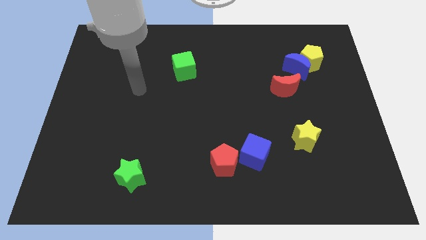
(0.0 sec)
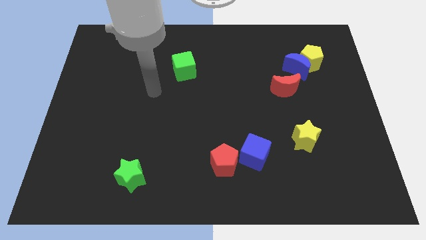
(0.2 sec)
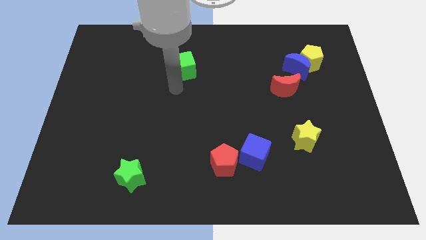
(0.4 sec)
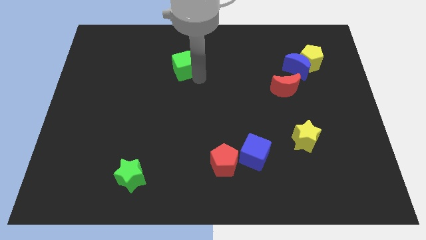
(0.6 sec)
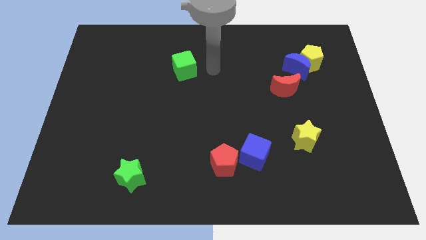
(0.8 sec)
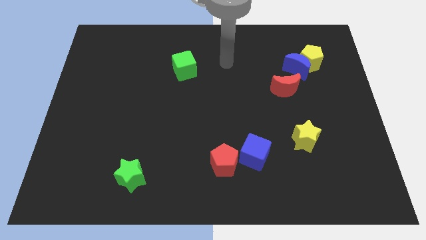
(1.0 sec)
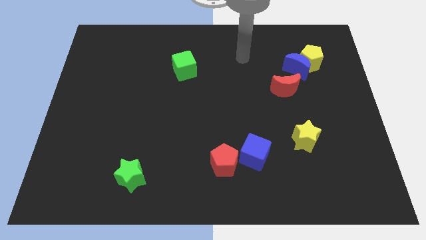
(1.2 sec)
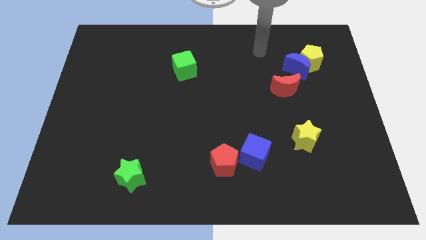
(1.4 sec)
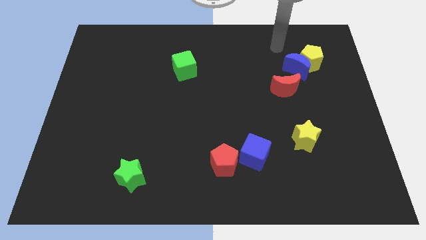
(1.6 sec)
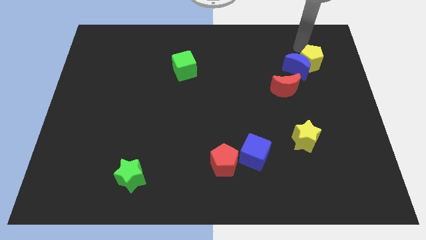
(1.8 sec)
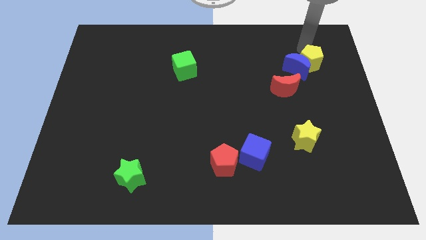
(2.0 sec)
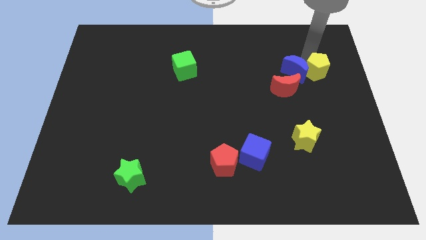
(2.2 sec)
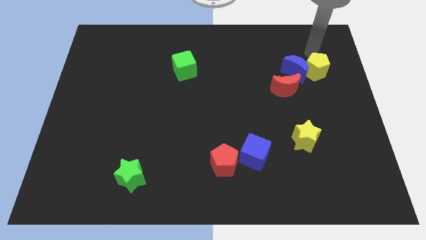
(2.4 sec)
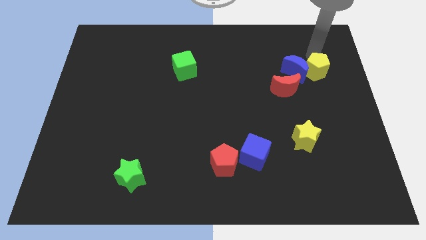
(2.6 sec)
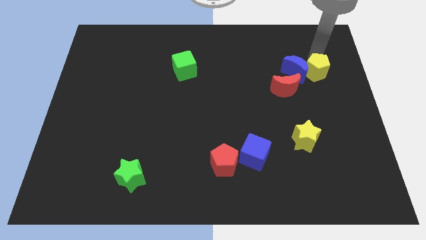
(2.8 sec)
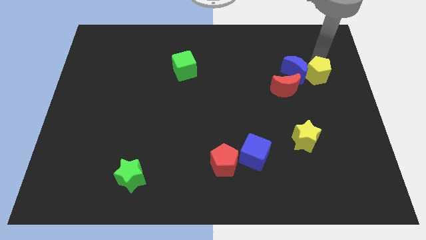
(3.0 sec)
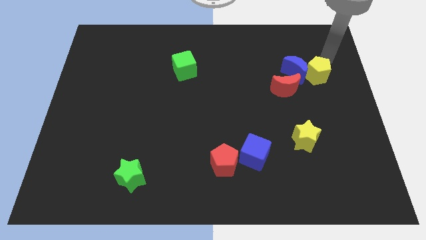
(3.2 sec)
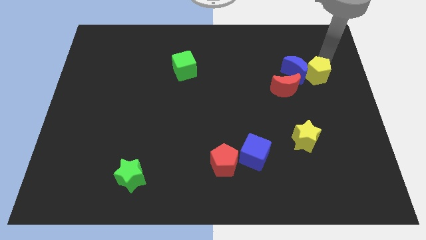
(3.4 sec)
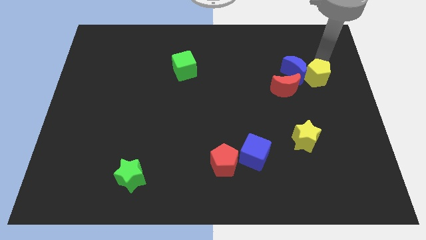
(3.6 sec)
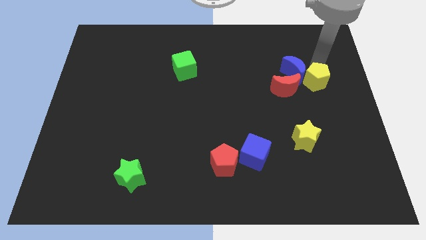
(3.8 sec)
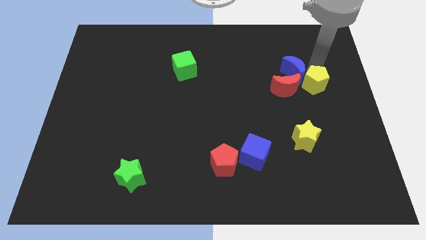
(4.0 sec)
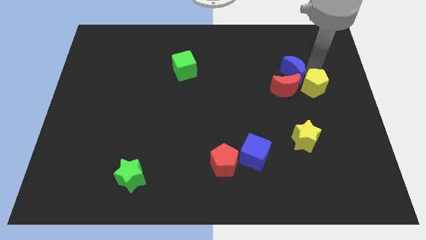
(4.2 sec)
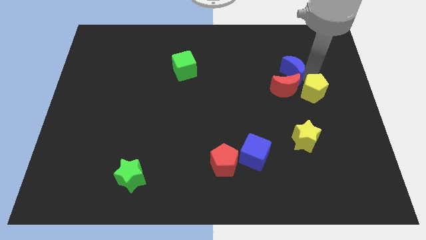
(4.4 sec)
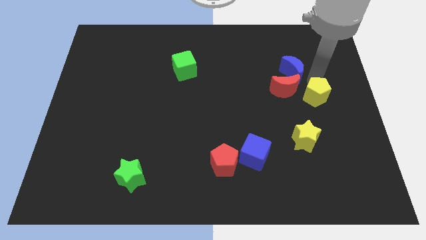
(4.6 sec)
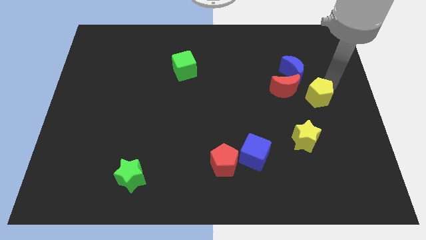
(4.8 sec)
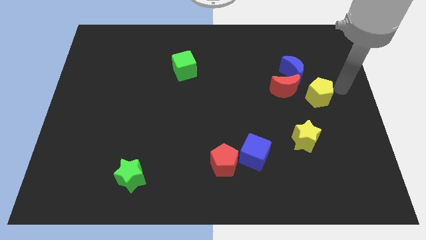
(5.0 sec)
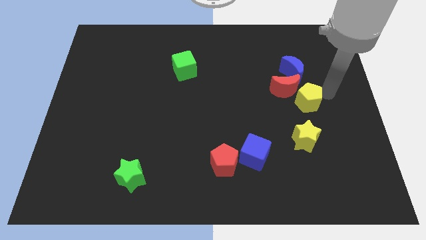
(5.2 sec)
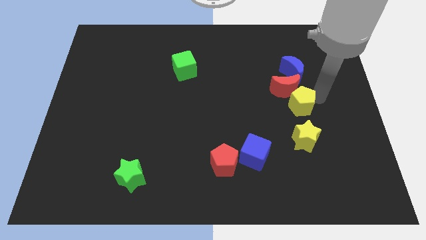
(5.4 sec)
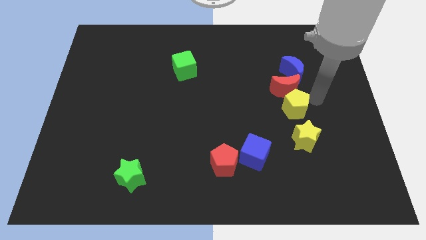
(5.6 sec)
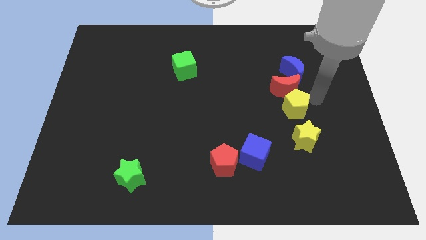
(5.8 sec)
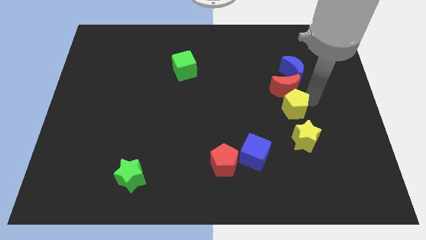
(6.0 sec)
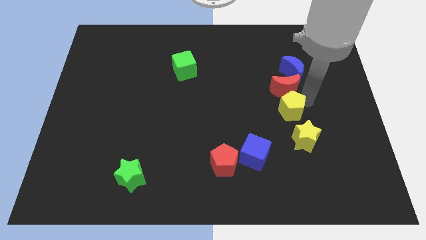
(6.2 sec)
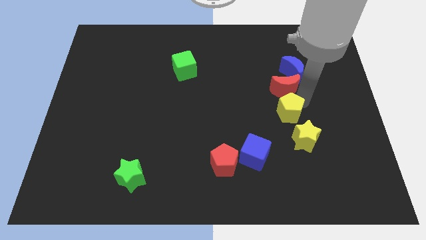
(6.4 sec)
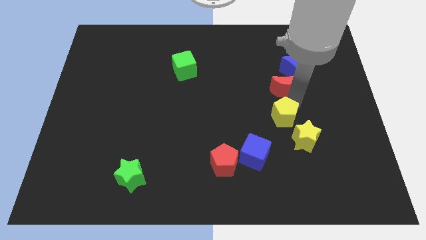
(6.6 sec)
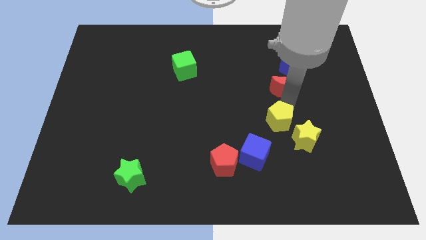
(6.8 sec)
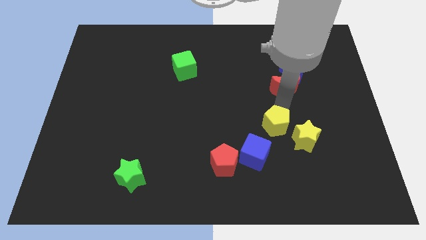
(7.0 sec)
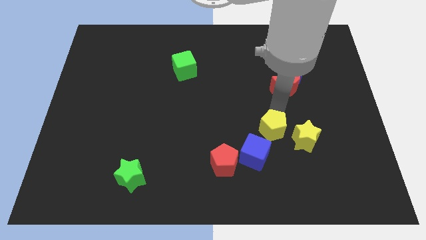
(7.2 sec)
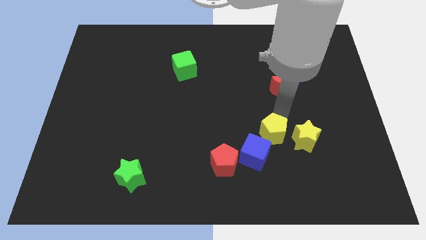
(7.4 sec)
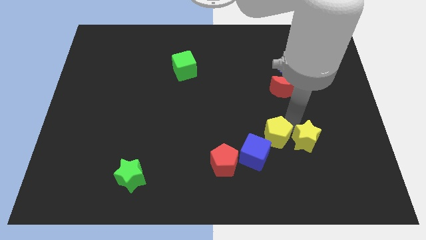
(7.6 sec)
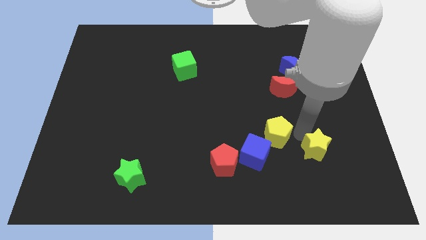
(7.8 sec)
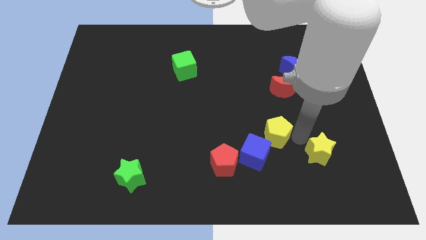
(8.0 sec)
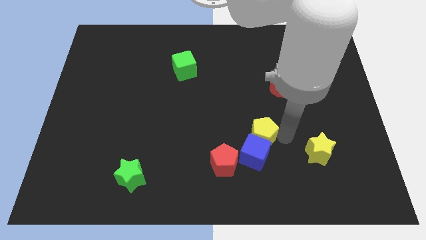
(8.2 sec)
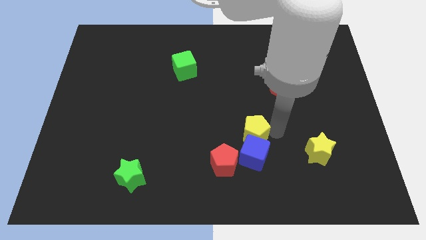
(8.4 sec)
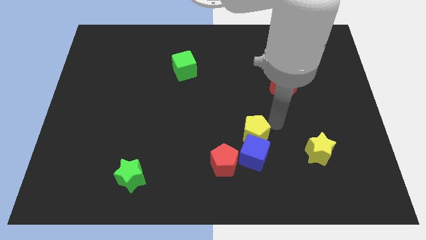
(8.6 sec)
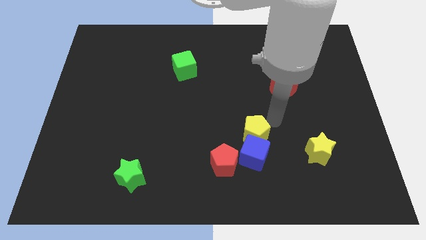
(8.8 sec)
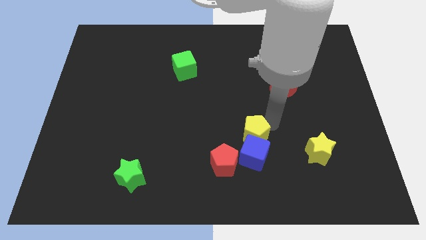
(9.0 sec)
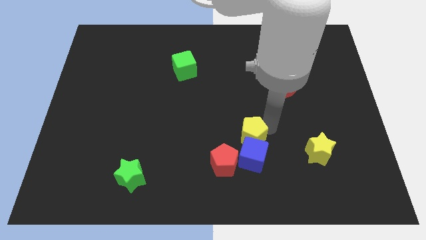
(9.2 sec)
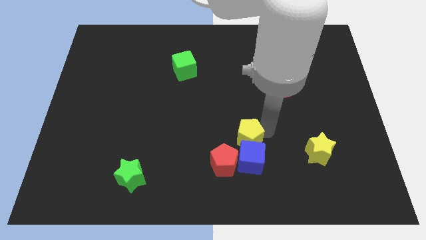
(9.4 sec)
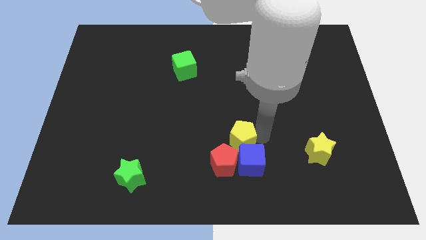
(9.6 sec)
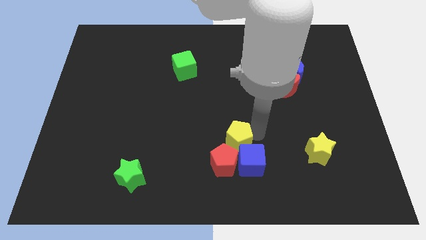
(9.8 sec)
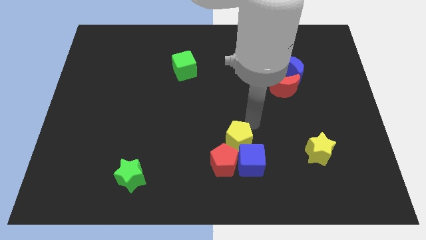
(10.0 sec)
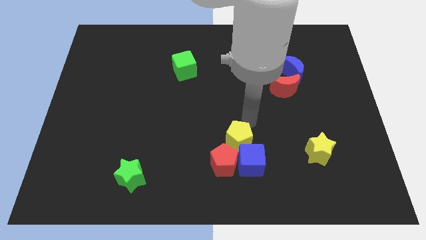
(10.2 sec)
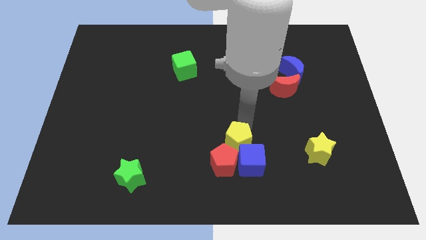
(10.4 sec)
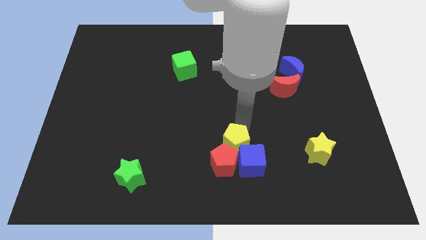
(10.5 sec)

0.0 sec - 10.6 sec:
slide the yellow pentagon next to the red pentagon

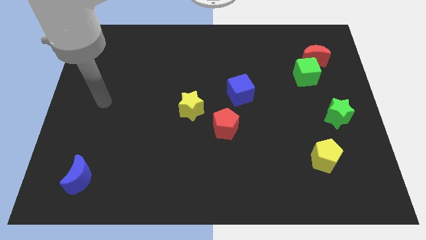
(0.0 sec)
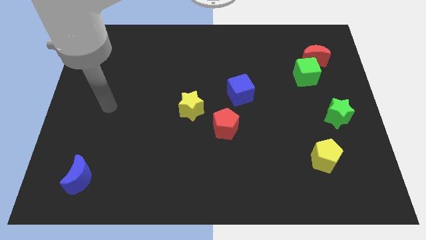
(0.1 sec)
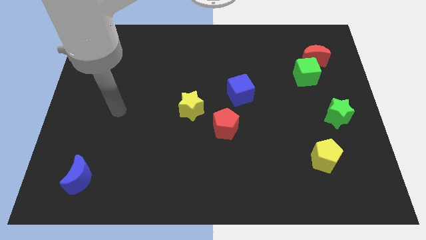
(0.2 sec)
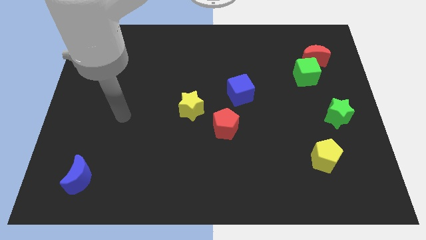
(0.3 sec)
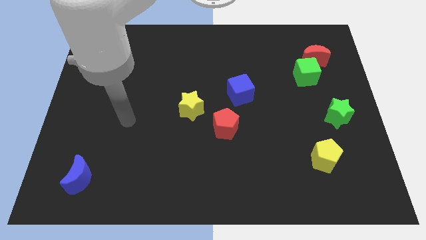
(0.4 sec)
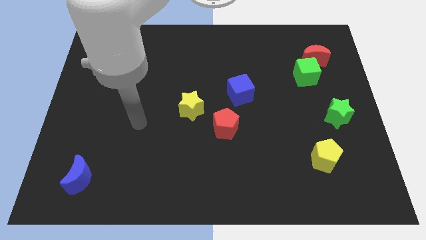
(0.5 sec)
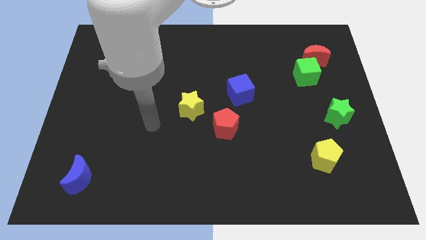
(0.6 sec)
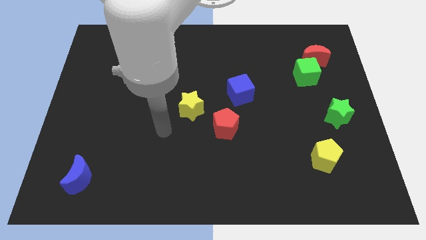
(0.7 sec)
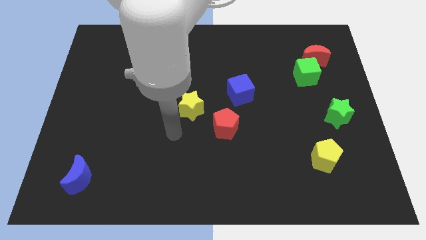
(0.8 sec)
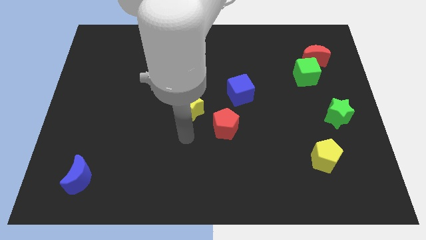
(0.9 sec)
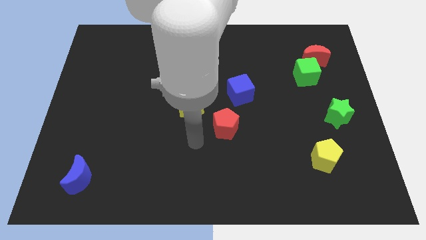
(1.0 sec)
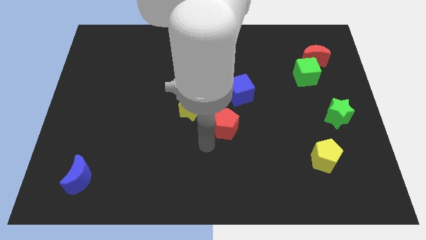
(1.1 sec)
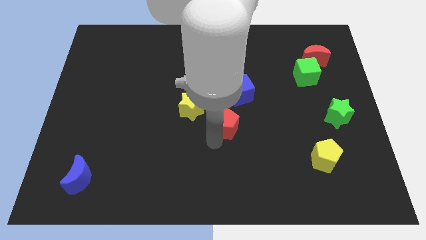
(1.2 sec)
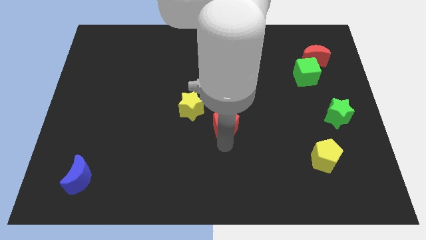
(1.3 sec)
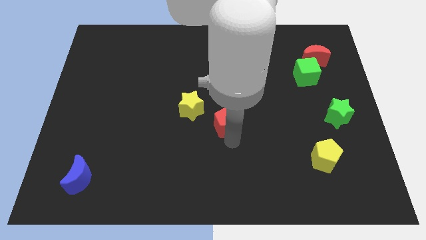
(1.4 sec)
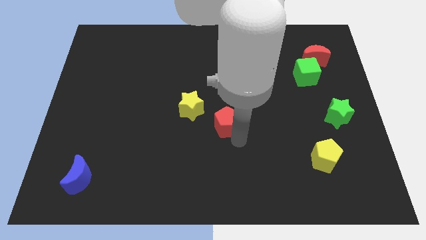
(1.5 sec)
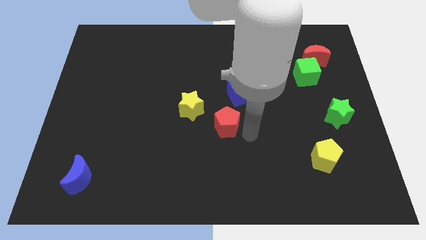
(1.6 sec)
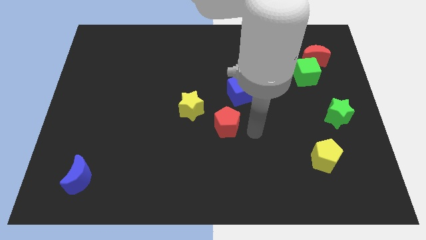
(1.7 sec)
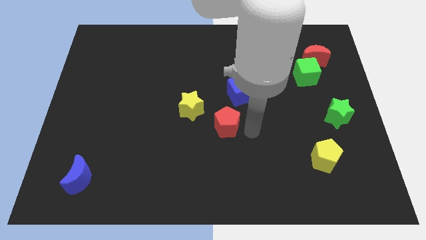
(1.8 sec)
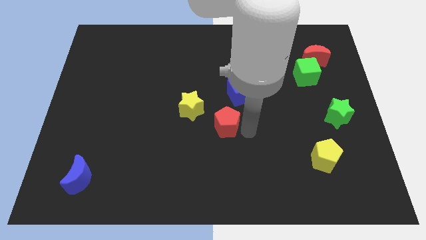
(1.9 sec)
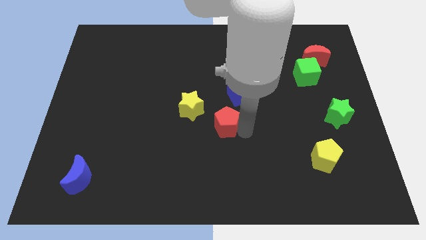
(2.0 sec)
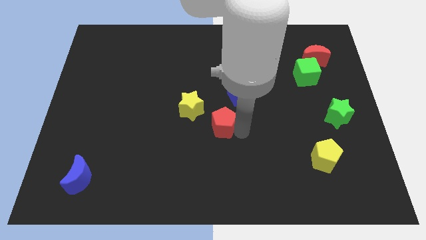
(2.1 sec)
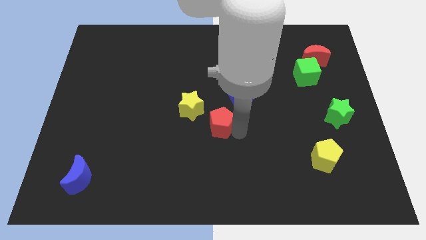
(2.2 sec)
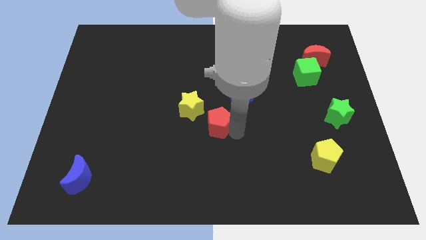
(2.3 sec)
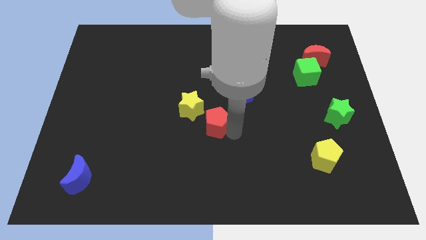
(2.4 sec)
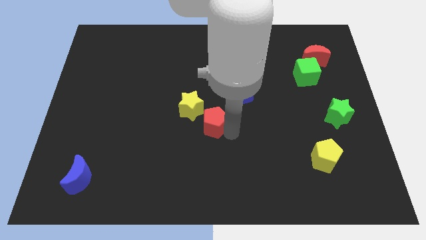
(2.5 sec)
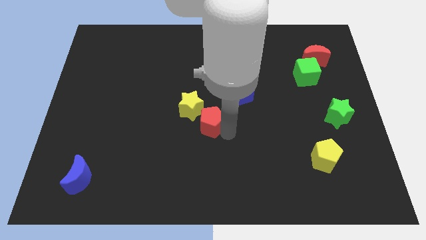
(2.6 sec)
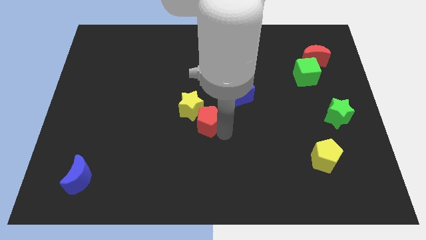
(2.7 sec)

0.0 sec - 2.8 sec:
move the red pentagon to the yellow star
